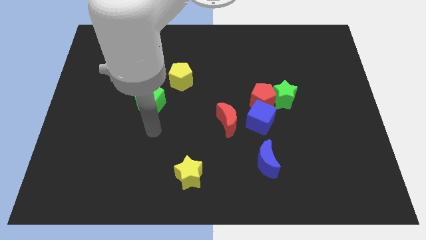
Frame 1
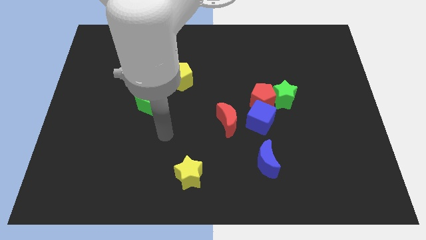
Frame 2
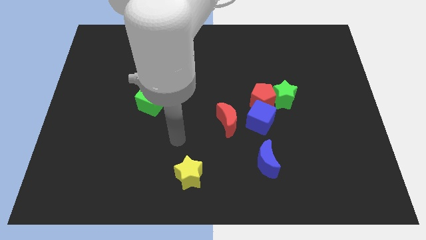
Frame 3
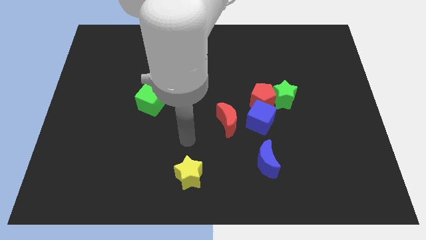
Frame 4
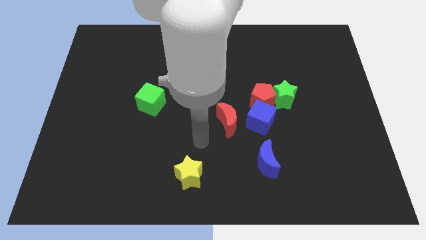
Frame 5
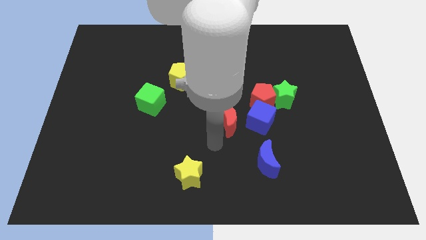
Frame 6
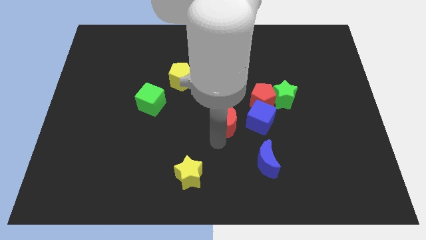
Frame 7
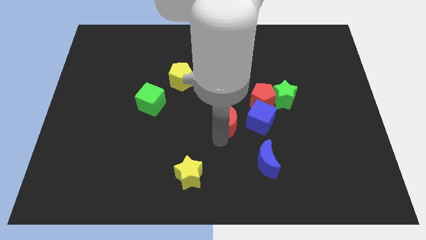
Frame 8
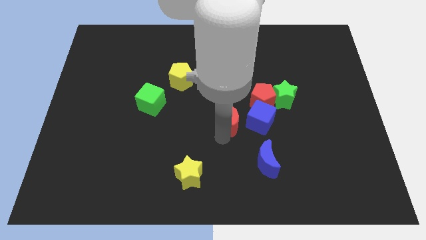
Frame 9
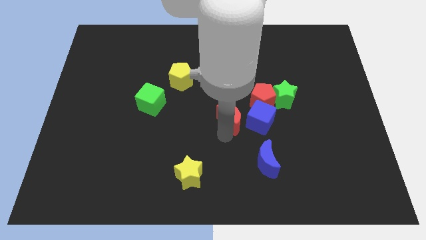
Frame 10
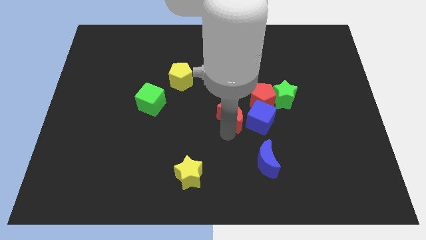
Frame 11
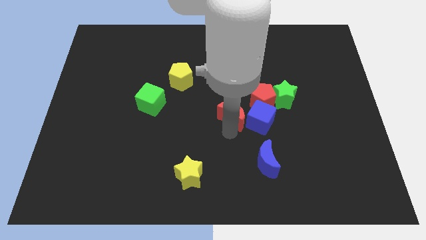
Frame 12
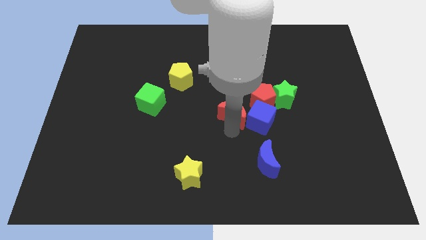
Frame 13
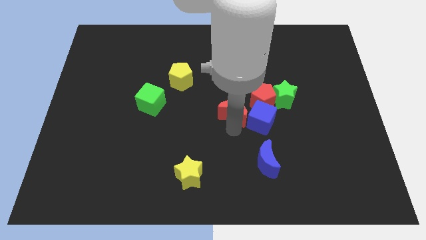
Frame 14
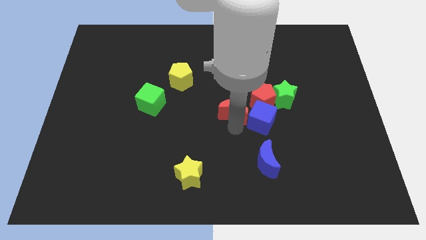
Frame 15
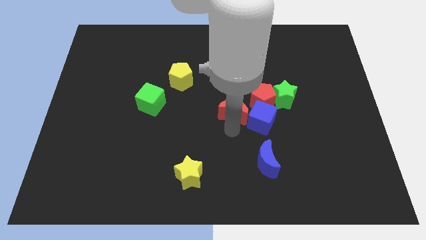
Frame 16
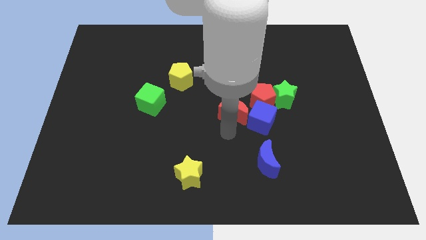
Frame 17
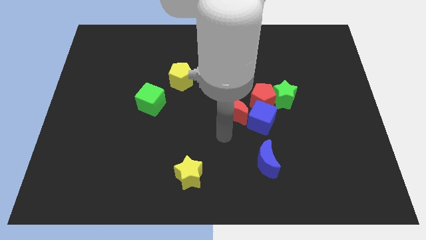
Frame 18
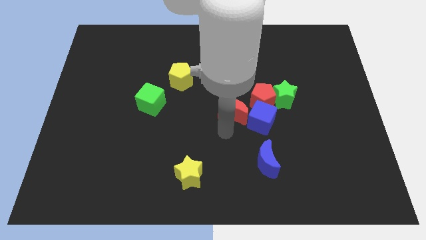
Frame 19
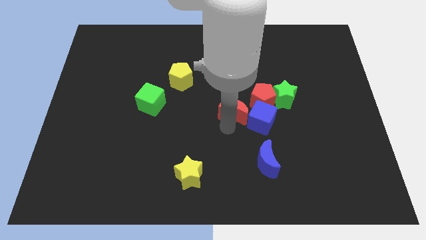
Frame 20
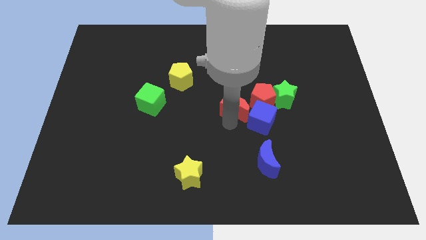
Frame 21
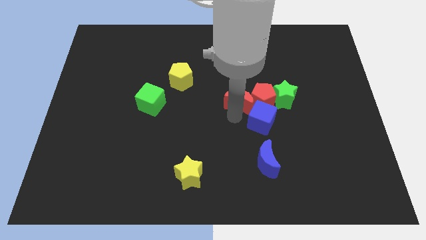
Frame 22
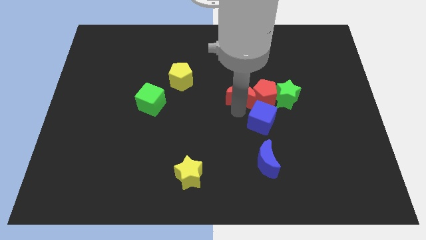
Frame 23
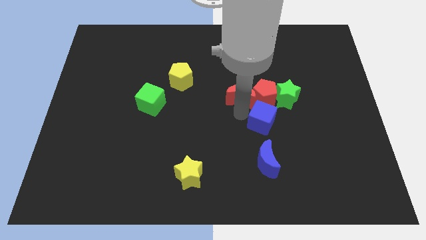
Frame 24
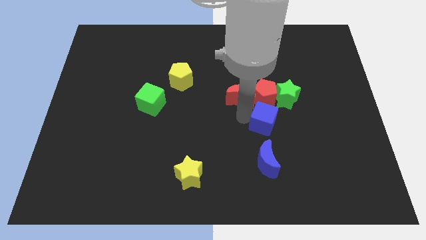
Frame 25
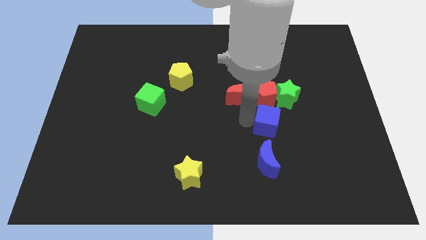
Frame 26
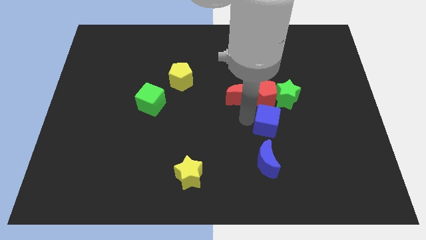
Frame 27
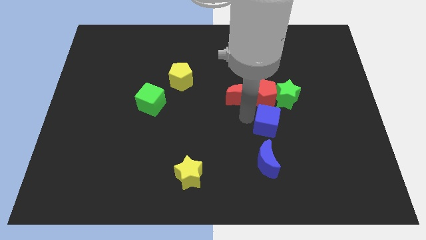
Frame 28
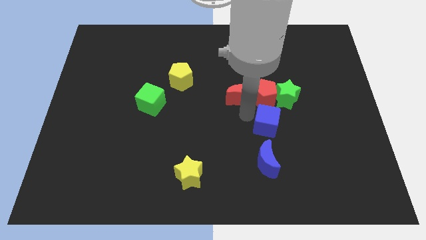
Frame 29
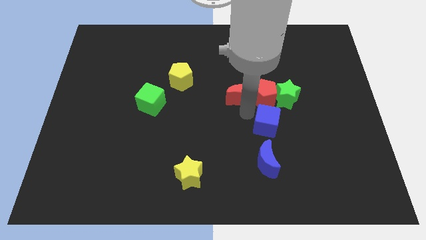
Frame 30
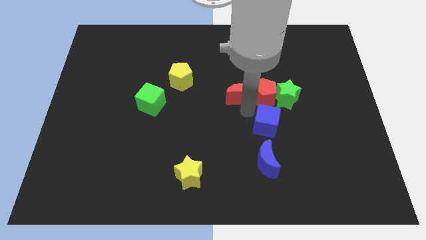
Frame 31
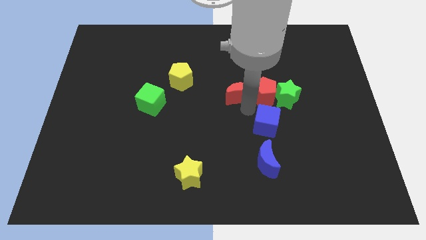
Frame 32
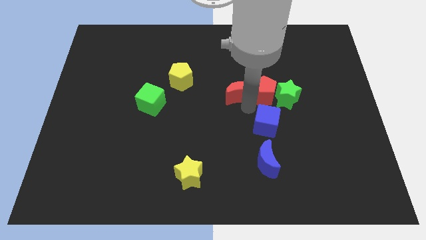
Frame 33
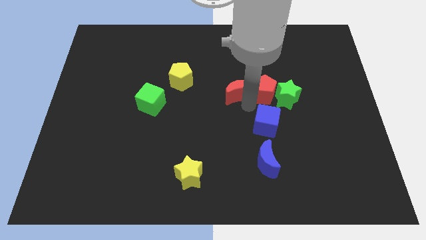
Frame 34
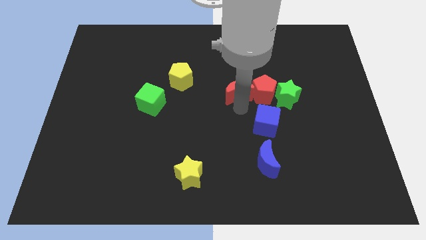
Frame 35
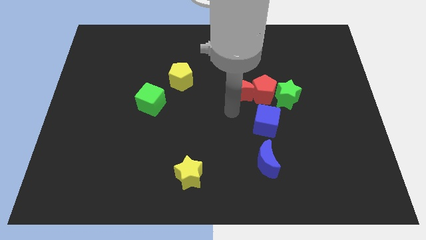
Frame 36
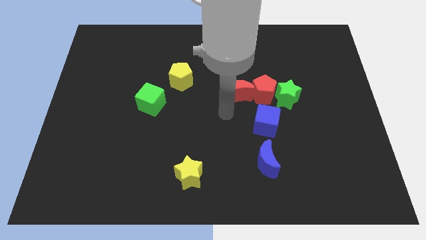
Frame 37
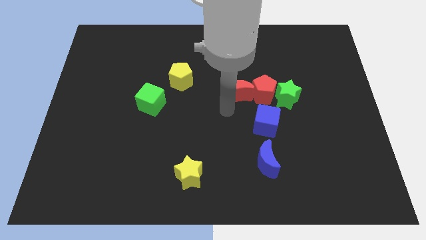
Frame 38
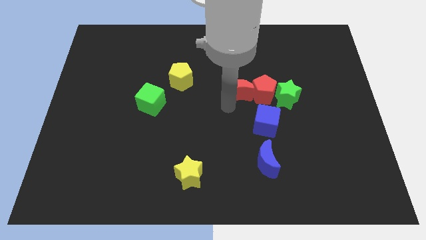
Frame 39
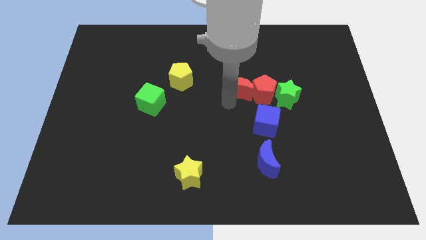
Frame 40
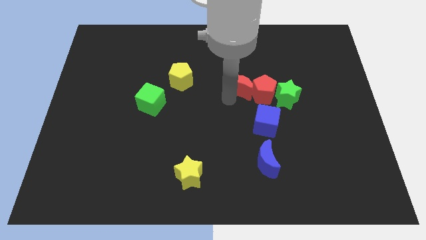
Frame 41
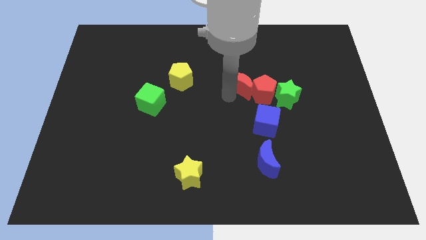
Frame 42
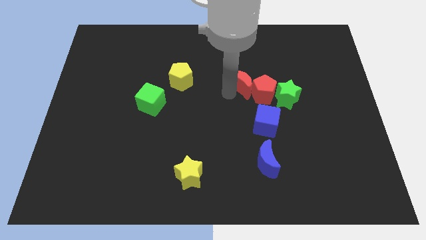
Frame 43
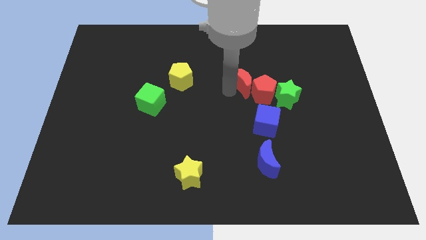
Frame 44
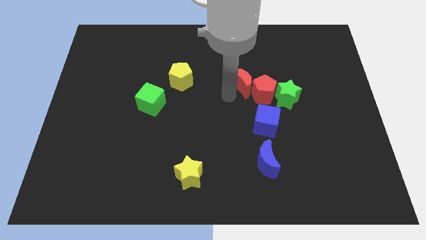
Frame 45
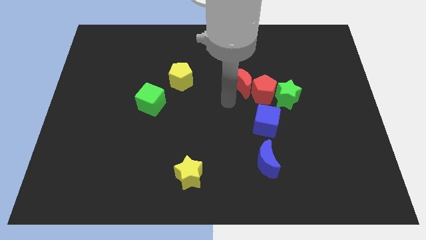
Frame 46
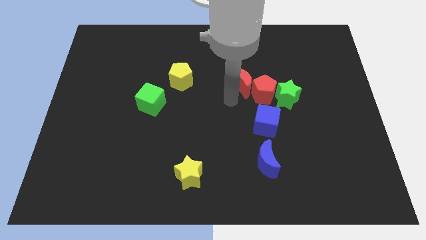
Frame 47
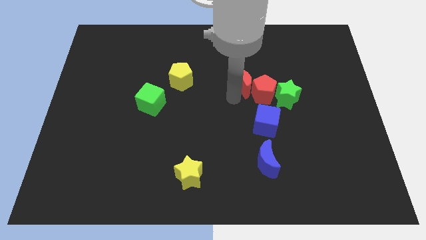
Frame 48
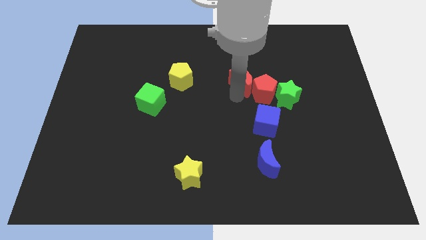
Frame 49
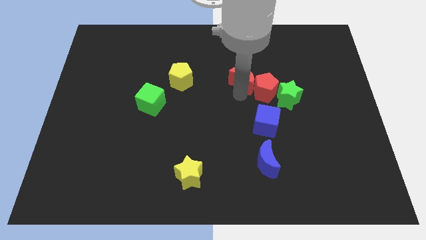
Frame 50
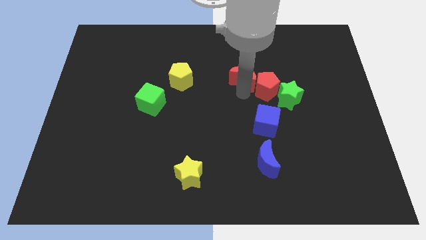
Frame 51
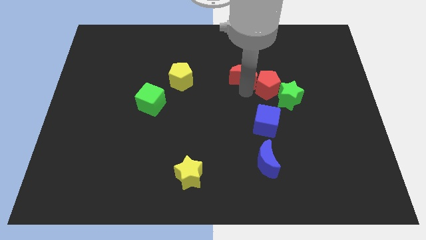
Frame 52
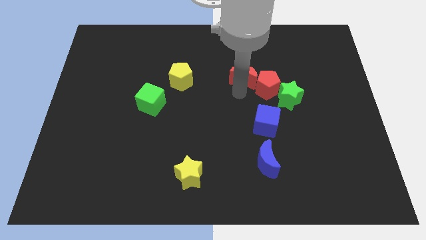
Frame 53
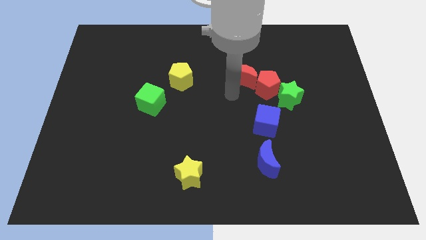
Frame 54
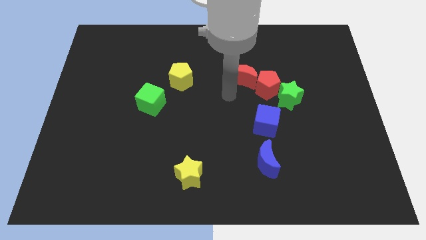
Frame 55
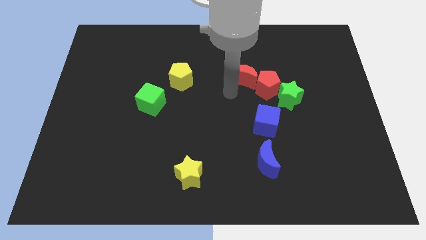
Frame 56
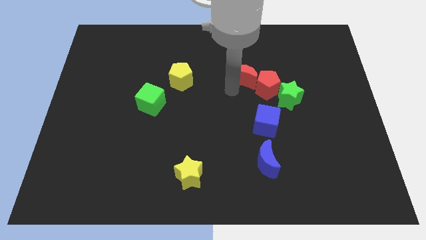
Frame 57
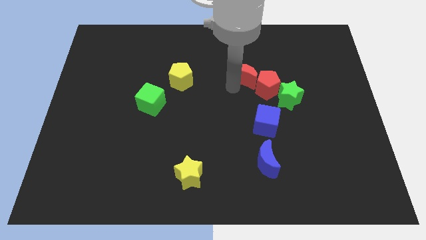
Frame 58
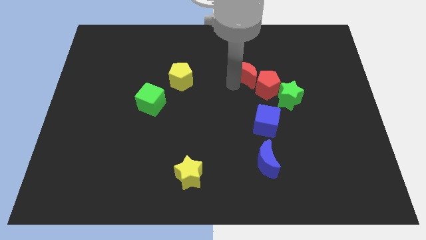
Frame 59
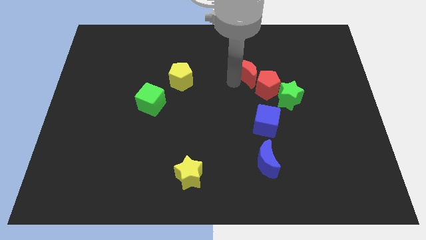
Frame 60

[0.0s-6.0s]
move the red moon to the top of the red pentagon

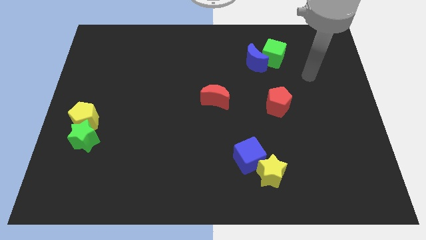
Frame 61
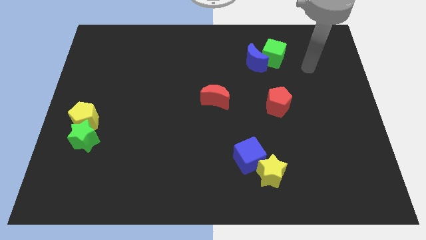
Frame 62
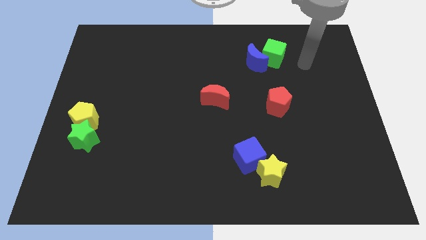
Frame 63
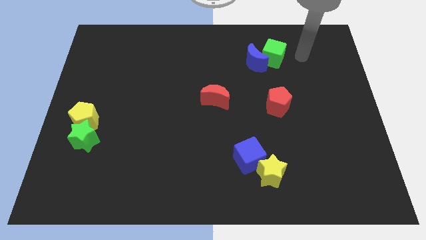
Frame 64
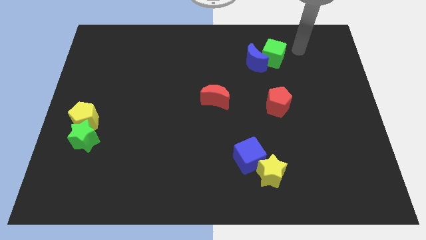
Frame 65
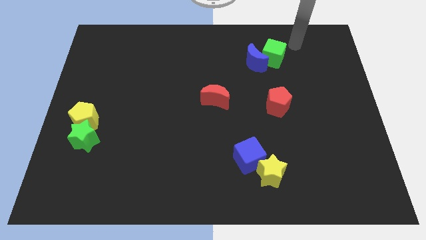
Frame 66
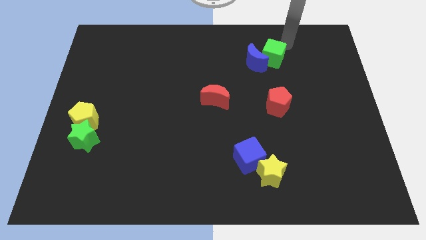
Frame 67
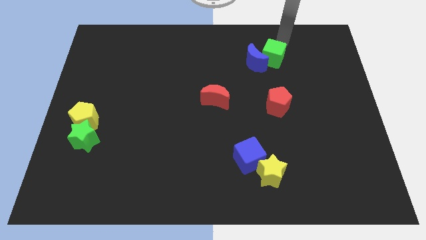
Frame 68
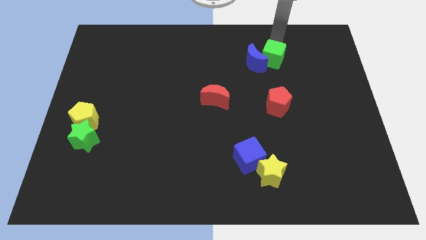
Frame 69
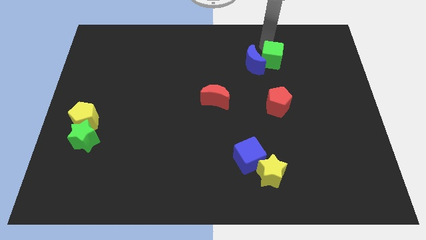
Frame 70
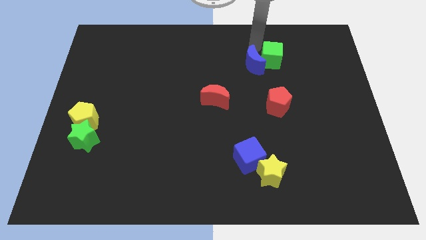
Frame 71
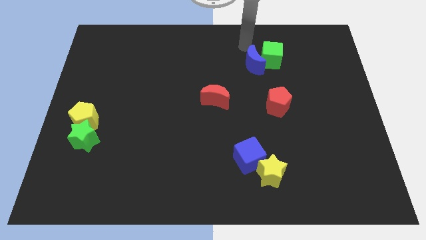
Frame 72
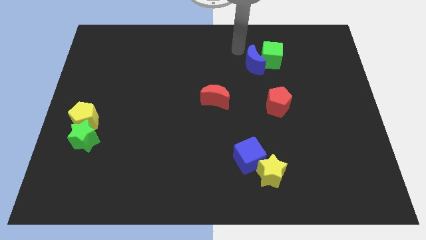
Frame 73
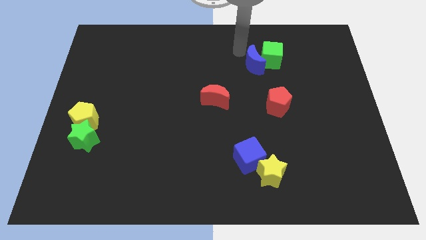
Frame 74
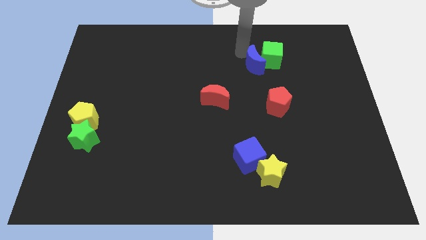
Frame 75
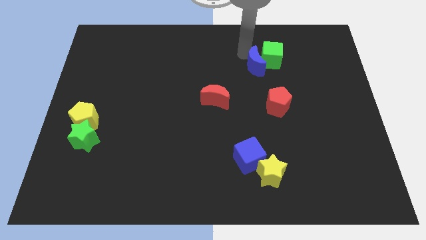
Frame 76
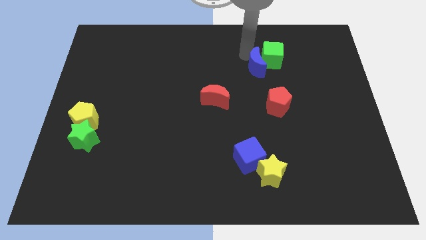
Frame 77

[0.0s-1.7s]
move the blue moon to the bottom side of the green cube
